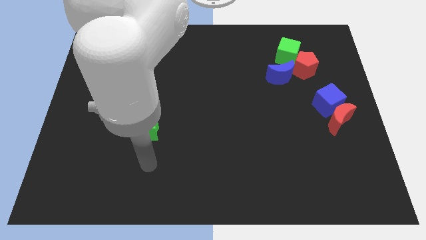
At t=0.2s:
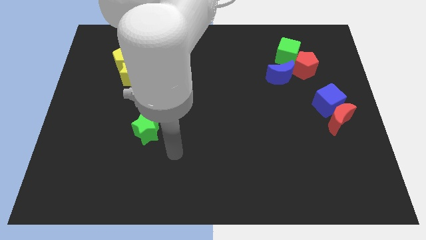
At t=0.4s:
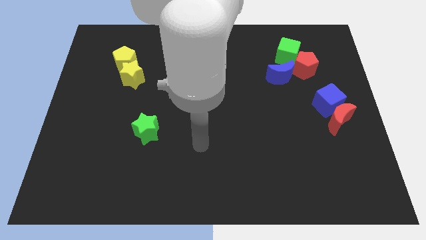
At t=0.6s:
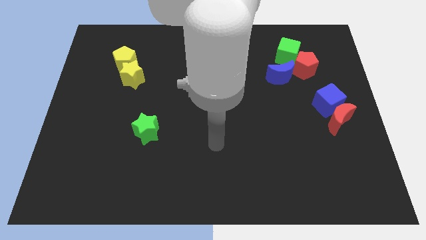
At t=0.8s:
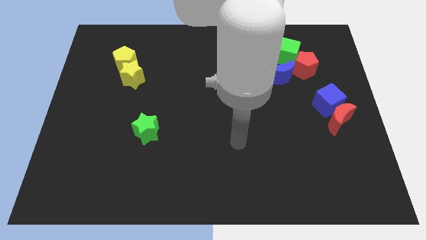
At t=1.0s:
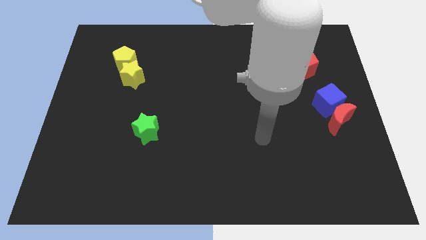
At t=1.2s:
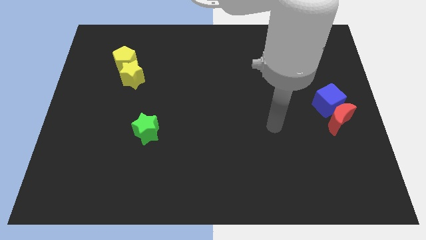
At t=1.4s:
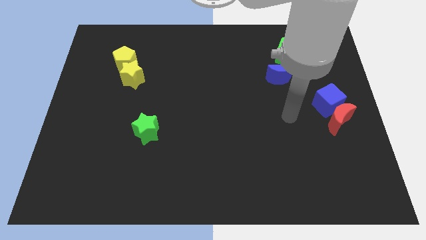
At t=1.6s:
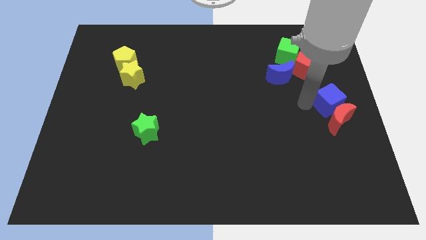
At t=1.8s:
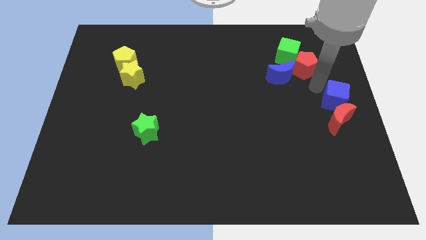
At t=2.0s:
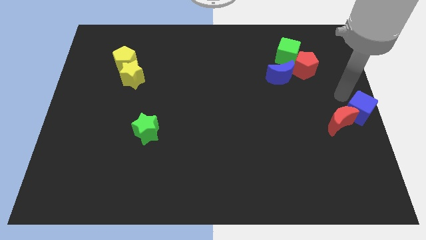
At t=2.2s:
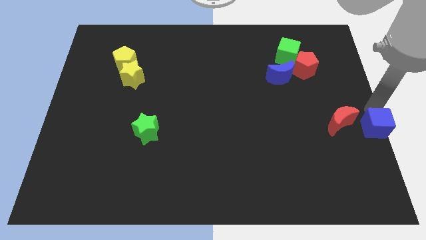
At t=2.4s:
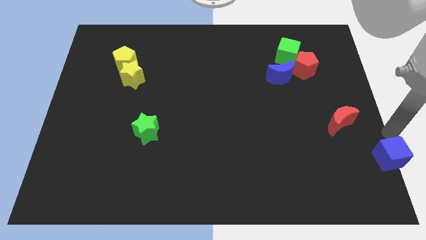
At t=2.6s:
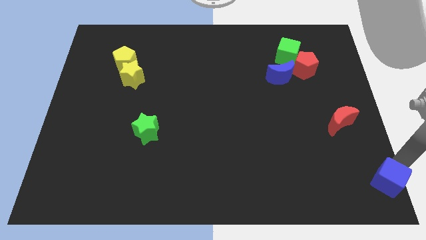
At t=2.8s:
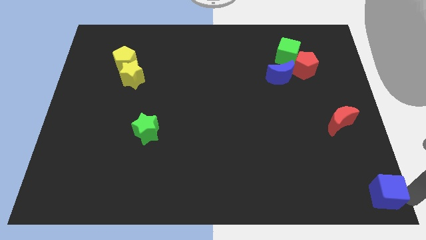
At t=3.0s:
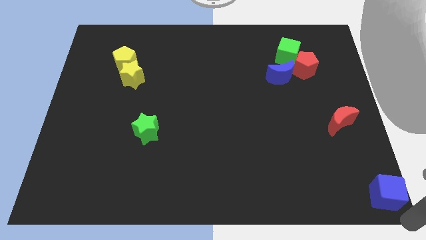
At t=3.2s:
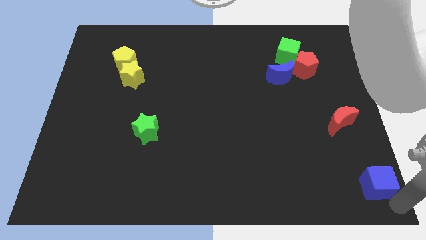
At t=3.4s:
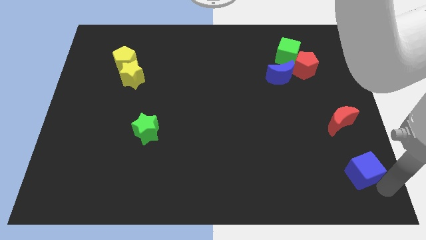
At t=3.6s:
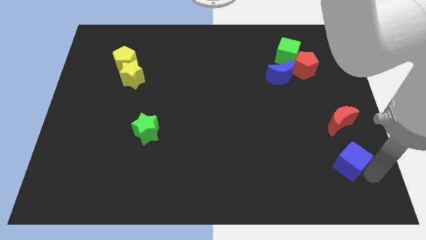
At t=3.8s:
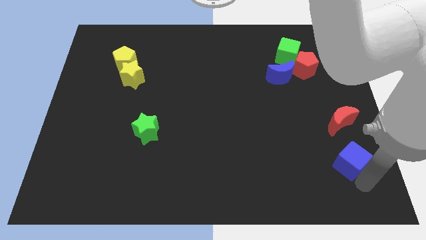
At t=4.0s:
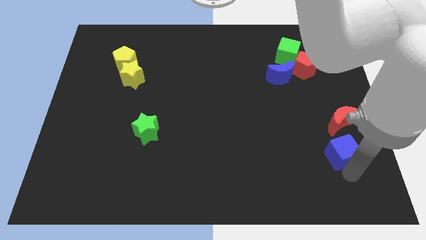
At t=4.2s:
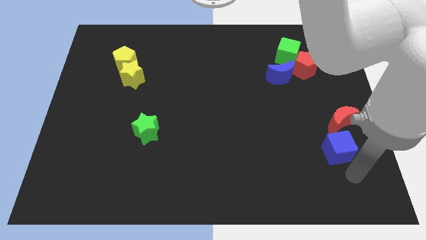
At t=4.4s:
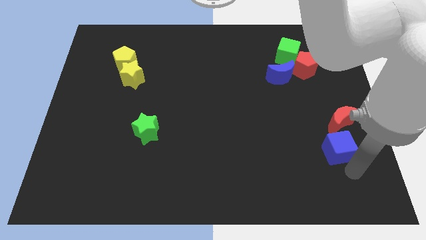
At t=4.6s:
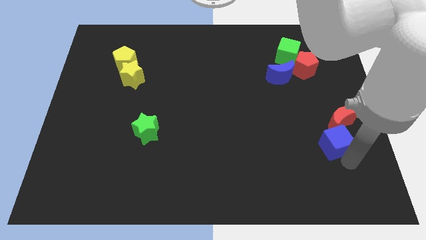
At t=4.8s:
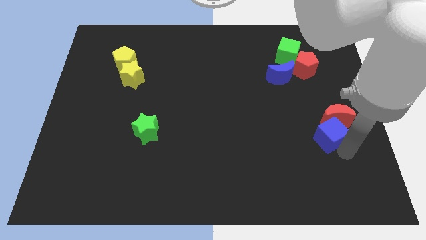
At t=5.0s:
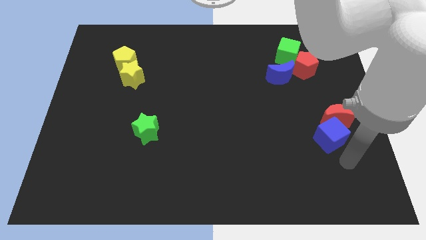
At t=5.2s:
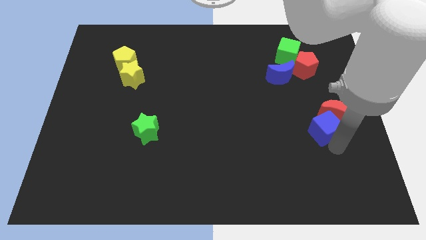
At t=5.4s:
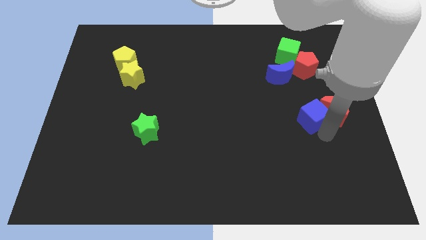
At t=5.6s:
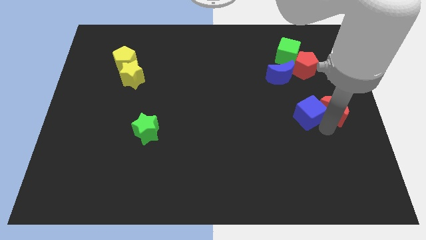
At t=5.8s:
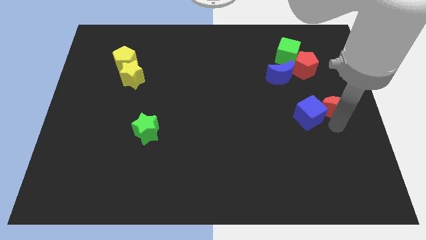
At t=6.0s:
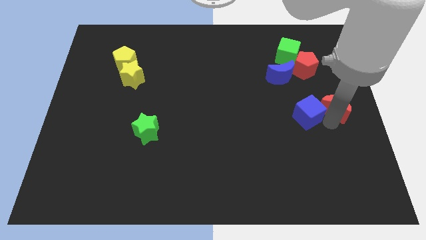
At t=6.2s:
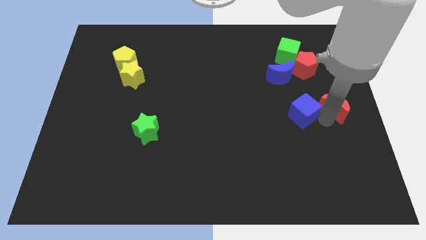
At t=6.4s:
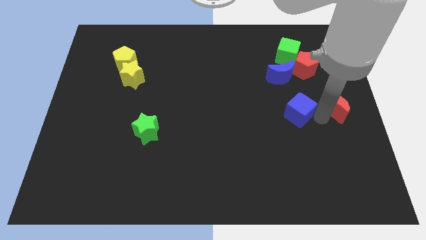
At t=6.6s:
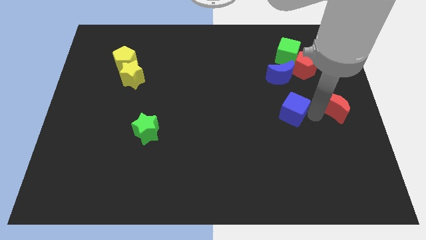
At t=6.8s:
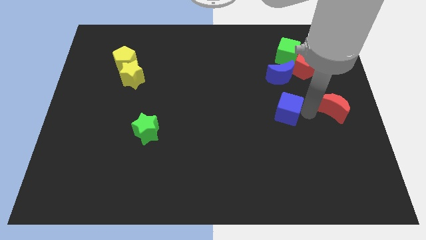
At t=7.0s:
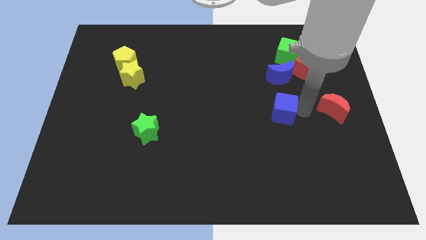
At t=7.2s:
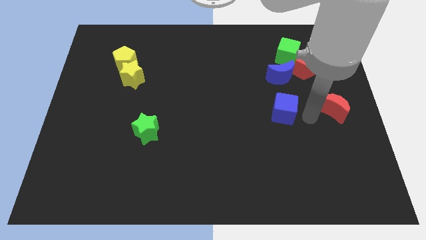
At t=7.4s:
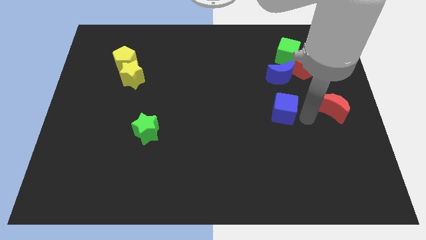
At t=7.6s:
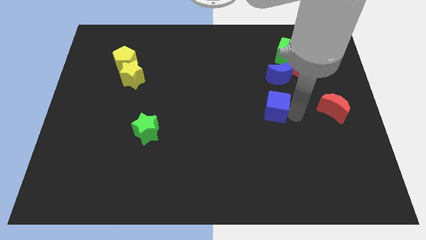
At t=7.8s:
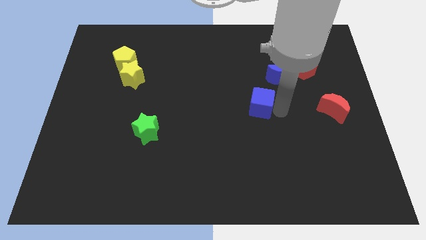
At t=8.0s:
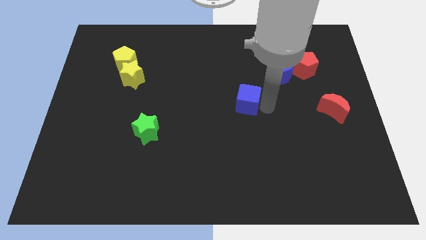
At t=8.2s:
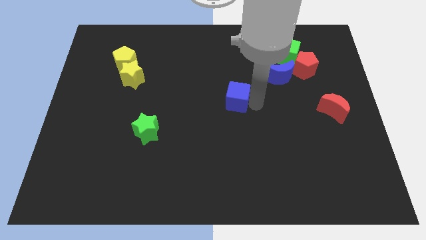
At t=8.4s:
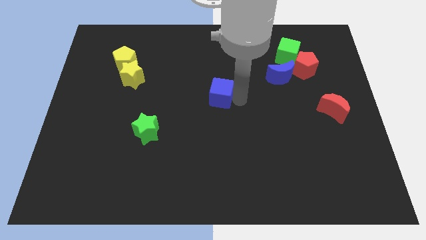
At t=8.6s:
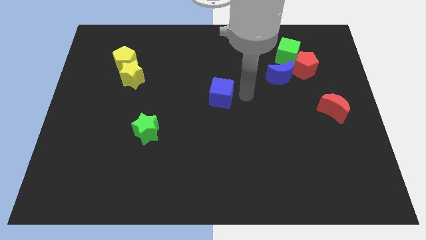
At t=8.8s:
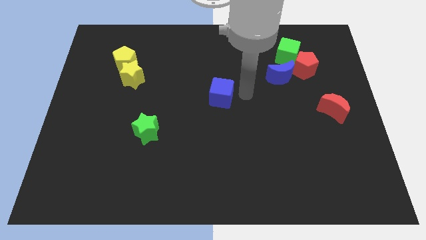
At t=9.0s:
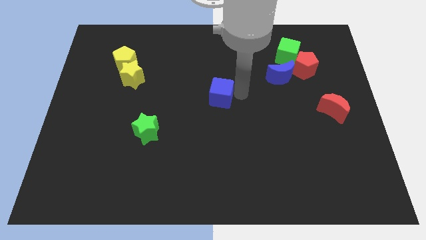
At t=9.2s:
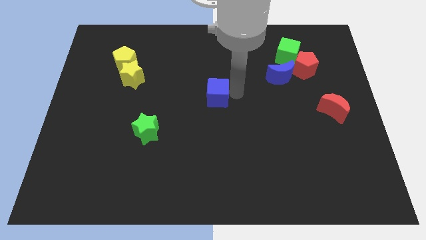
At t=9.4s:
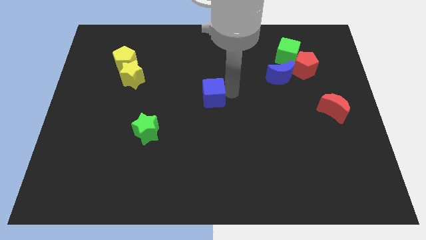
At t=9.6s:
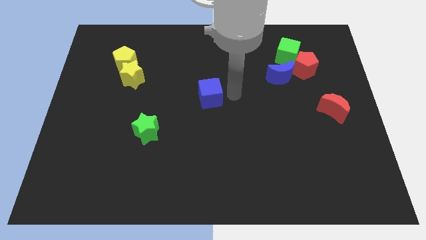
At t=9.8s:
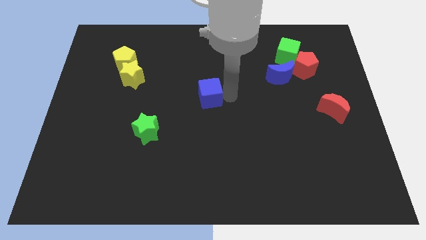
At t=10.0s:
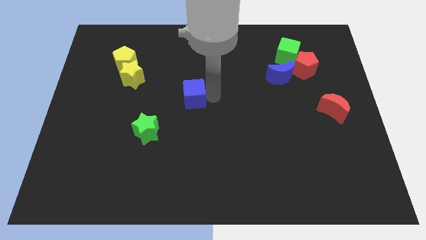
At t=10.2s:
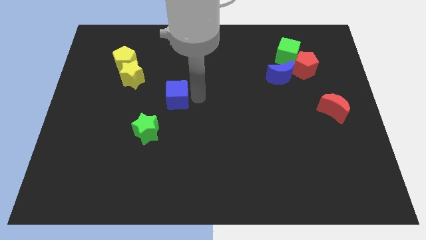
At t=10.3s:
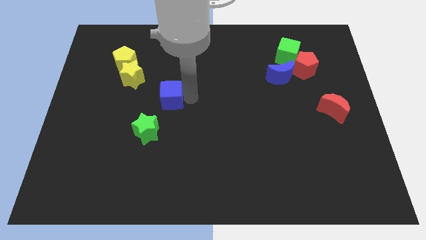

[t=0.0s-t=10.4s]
push the blue cube to the top side of the green star

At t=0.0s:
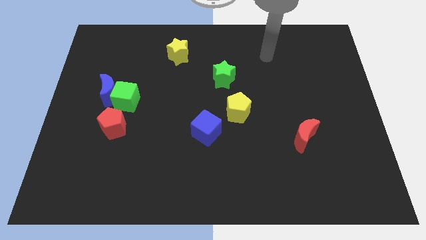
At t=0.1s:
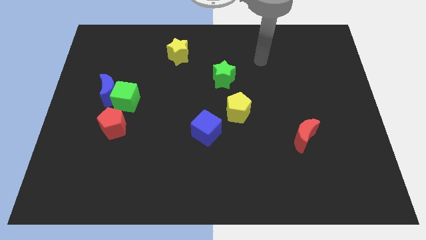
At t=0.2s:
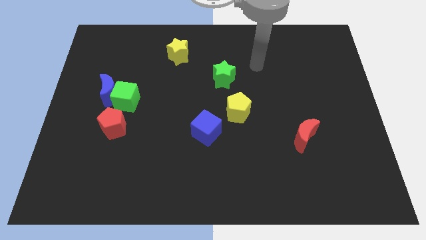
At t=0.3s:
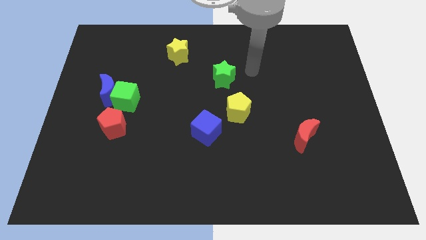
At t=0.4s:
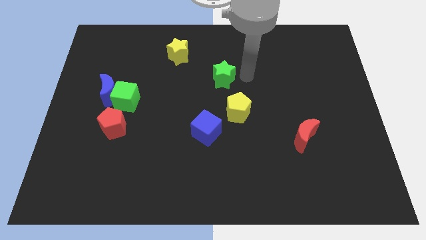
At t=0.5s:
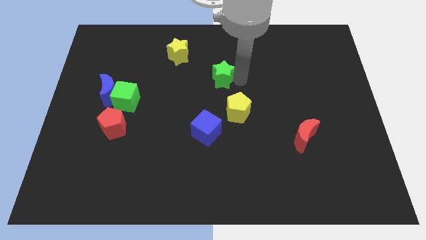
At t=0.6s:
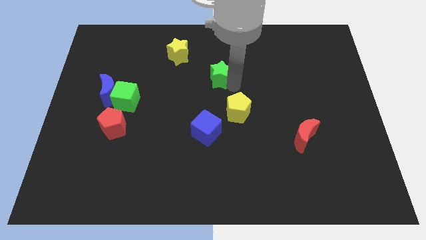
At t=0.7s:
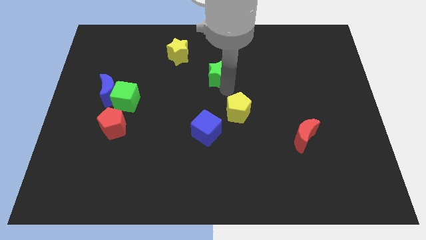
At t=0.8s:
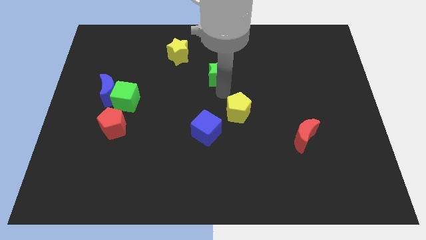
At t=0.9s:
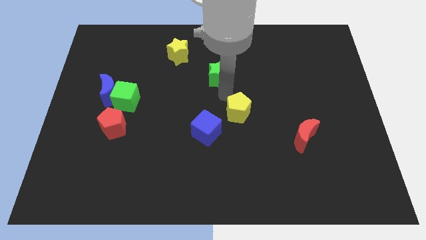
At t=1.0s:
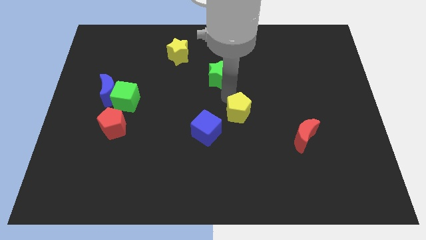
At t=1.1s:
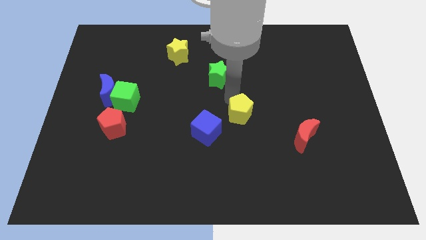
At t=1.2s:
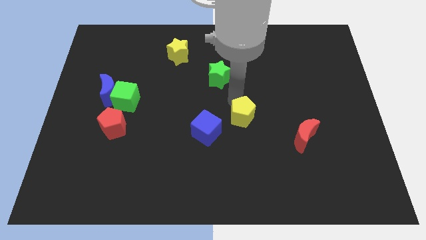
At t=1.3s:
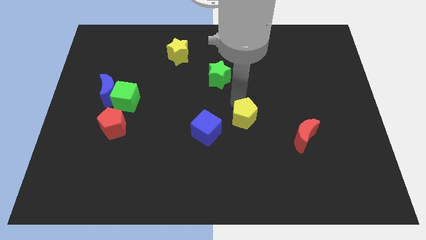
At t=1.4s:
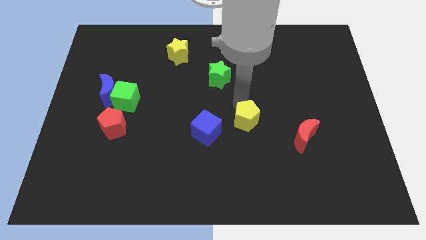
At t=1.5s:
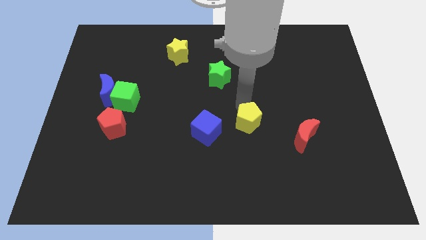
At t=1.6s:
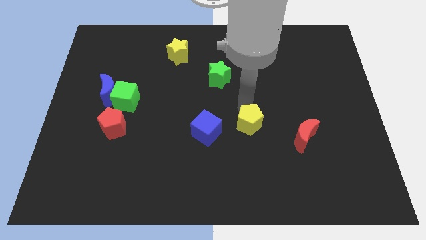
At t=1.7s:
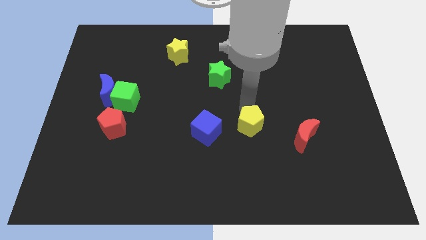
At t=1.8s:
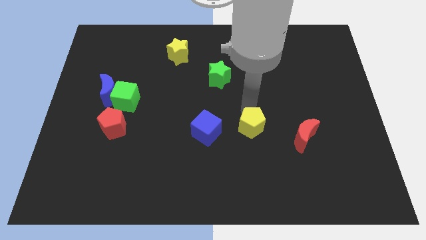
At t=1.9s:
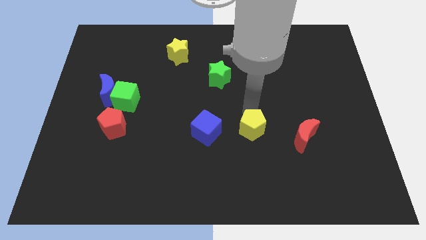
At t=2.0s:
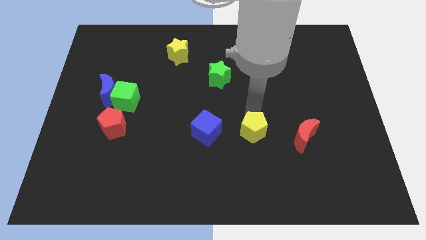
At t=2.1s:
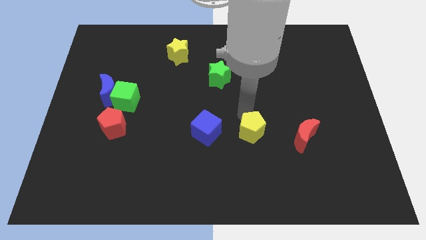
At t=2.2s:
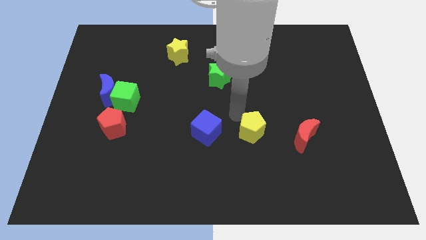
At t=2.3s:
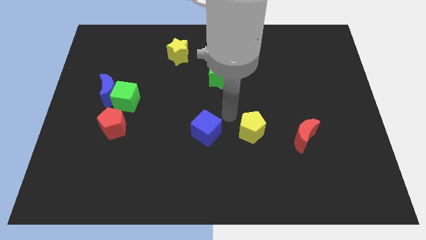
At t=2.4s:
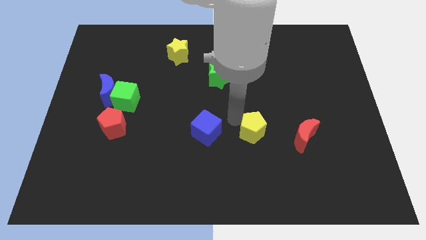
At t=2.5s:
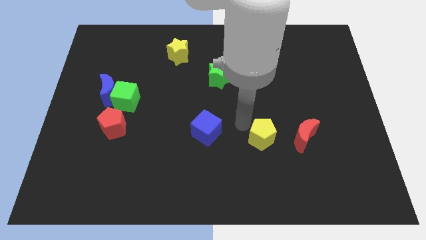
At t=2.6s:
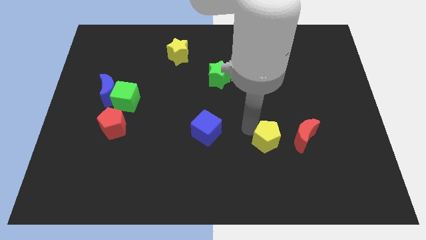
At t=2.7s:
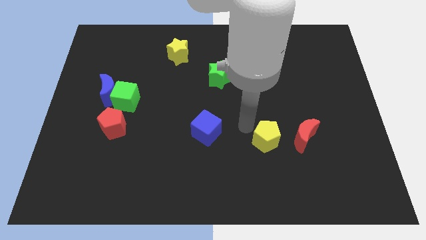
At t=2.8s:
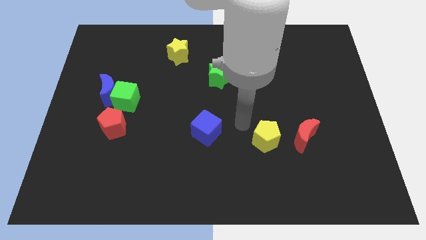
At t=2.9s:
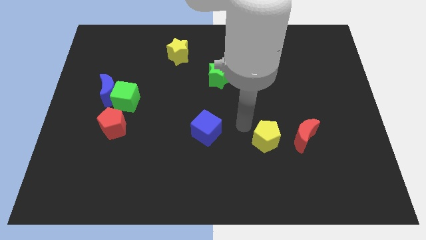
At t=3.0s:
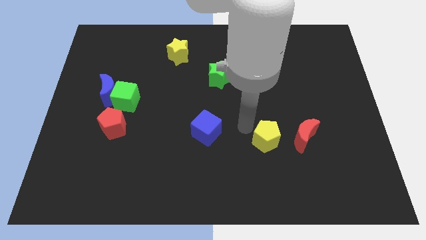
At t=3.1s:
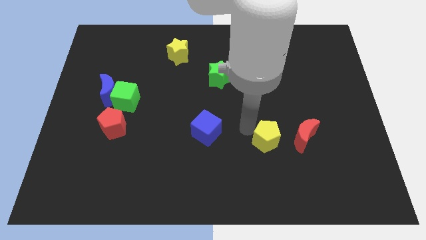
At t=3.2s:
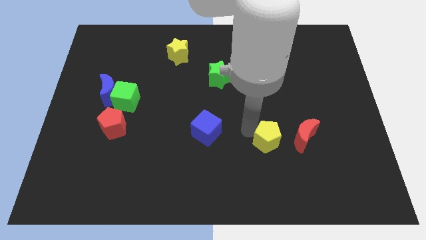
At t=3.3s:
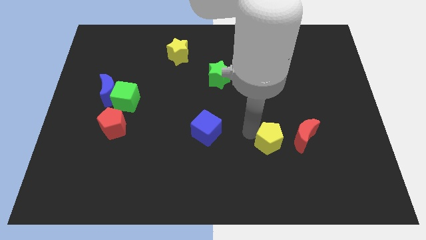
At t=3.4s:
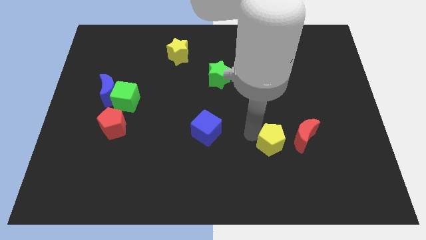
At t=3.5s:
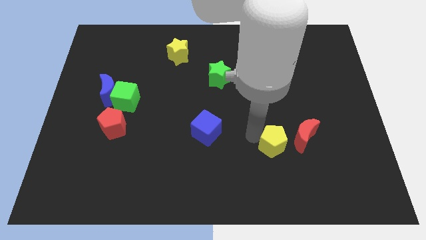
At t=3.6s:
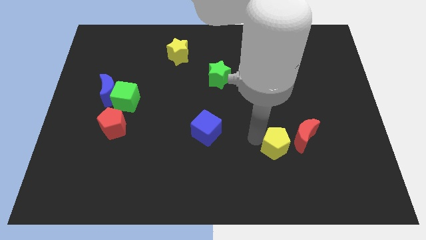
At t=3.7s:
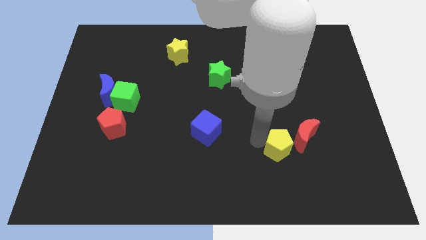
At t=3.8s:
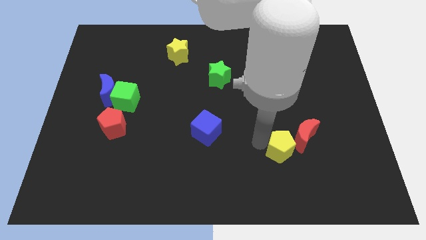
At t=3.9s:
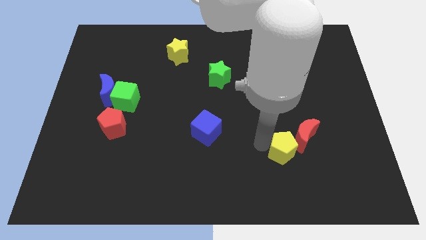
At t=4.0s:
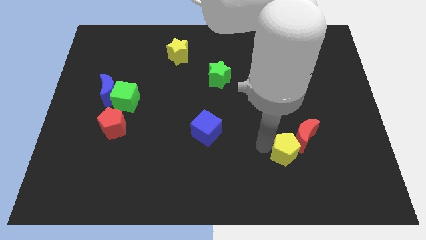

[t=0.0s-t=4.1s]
push the yellow pentagon to the bottom side of the red moon
